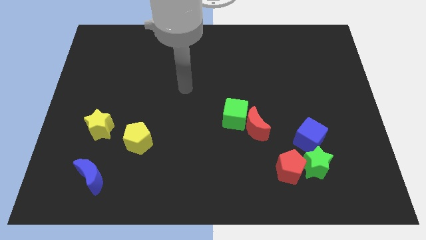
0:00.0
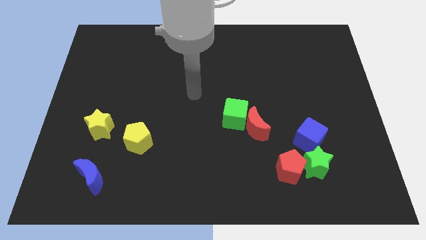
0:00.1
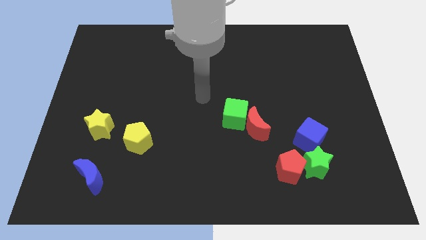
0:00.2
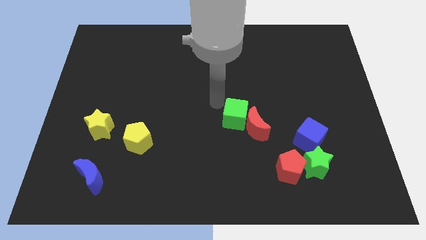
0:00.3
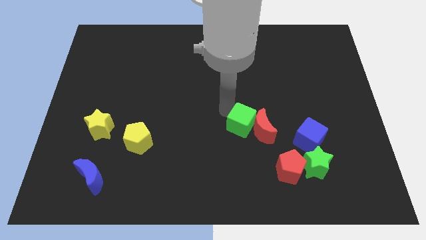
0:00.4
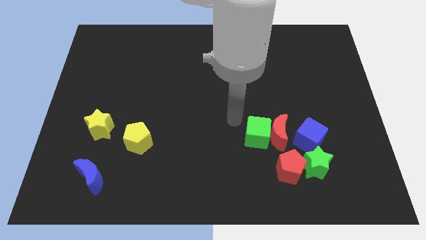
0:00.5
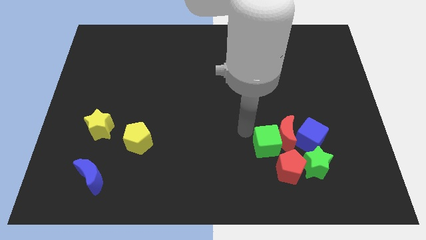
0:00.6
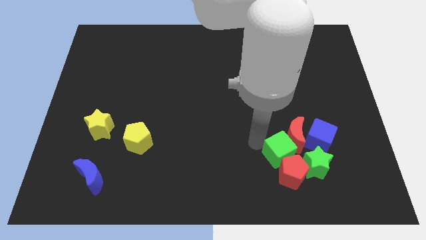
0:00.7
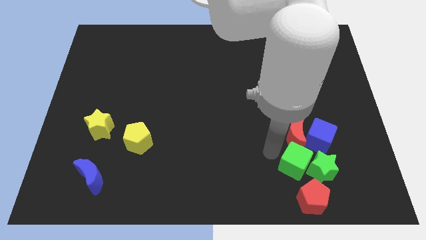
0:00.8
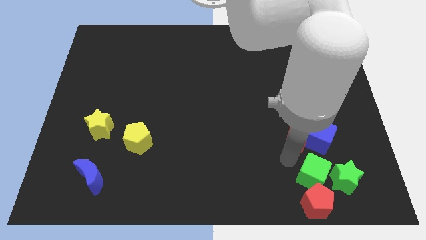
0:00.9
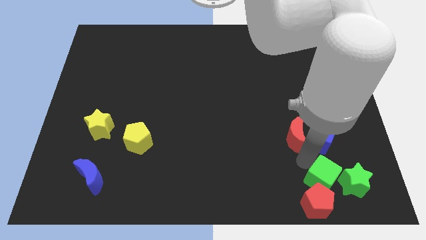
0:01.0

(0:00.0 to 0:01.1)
pull the red moon apart from the green cube

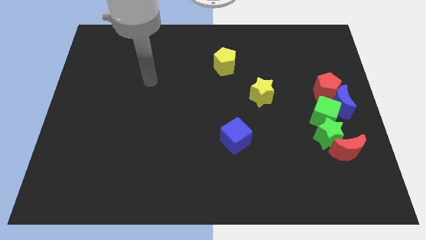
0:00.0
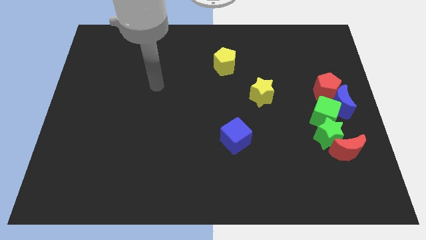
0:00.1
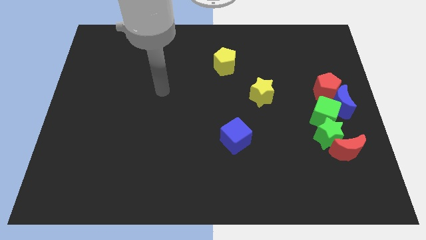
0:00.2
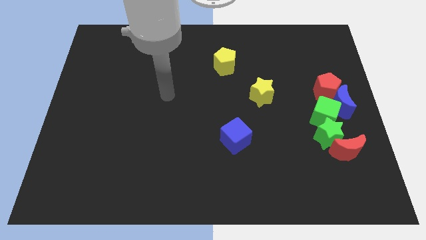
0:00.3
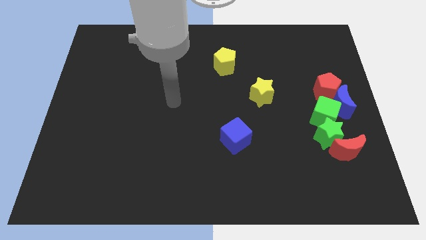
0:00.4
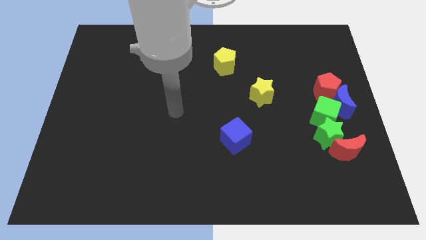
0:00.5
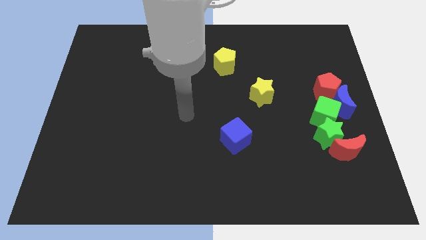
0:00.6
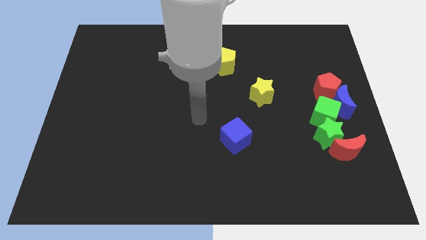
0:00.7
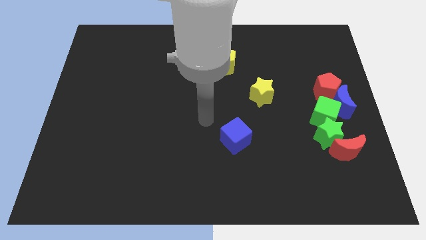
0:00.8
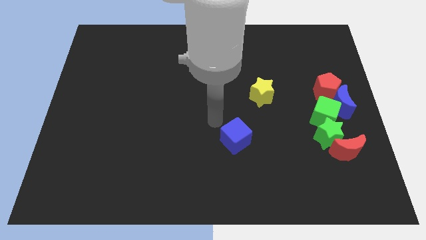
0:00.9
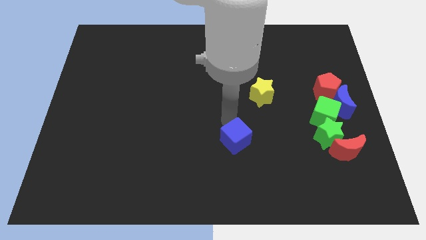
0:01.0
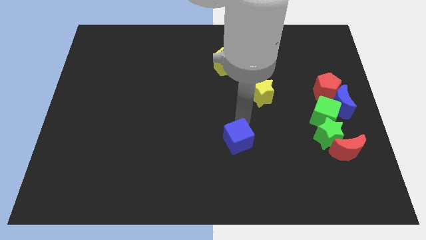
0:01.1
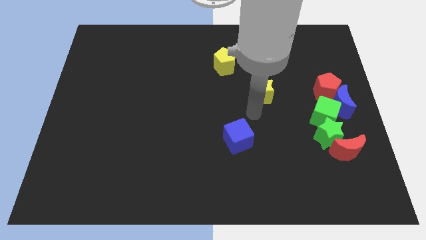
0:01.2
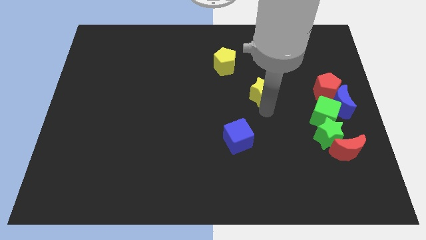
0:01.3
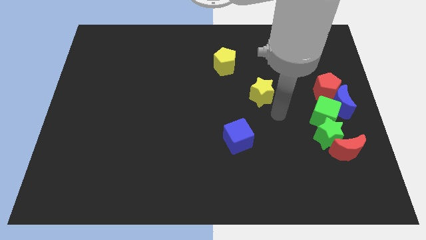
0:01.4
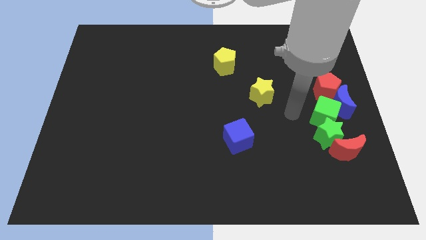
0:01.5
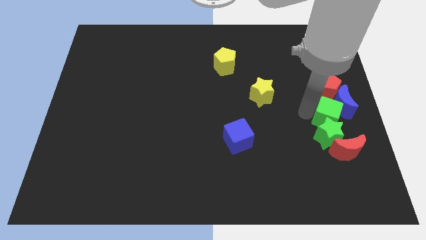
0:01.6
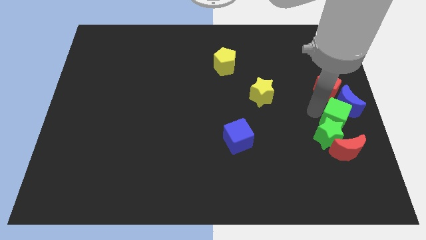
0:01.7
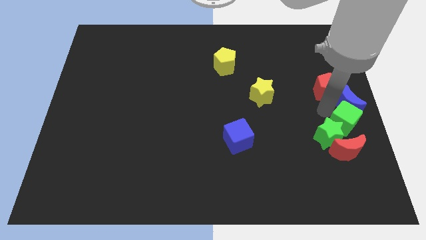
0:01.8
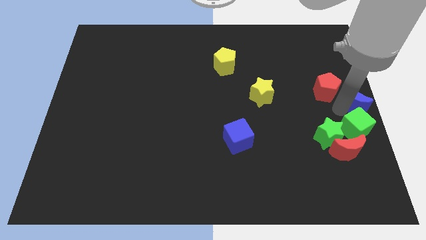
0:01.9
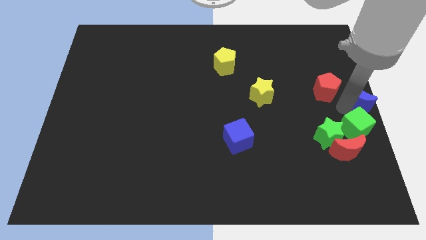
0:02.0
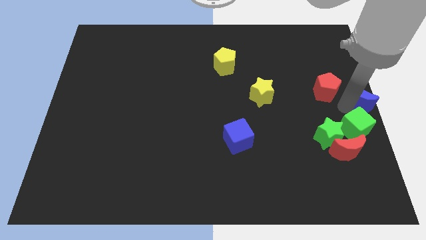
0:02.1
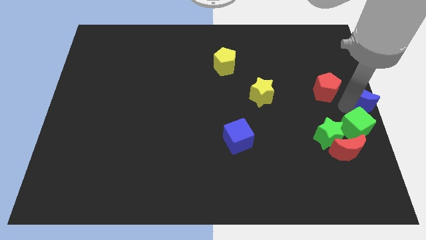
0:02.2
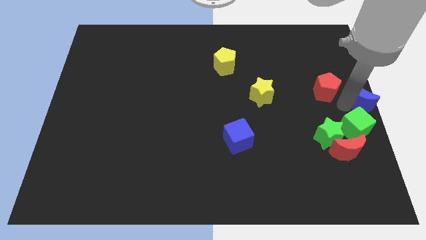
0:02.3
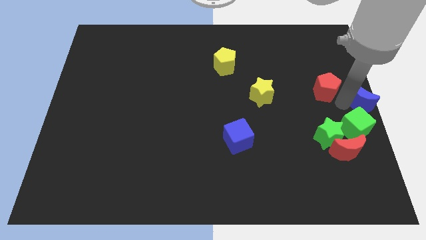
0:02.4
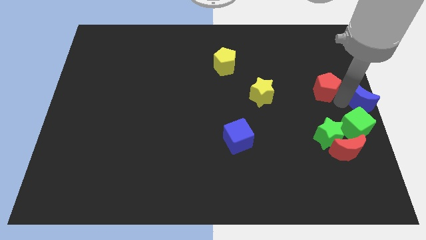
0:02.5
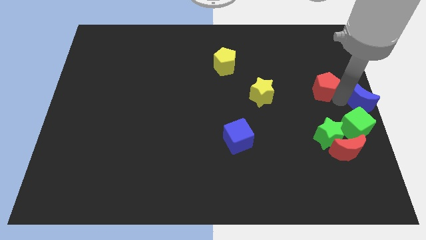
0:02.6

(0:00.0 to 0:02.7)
move the red pentagon away from the blue moon and green cube

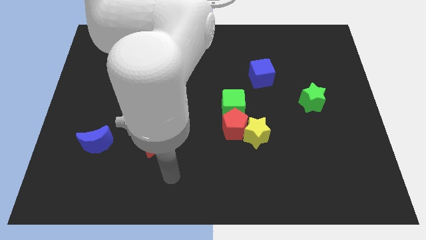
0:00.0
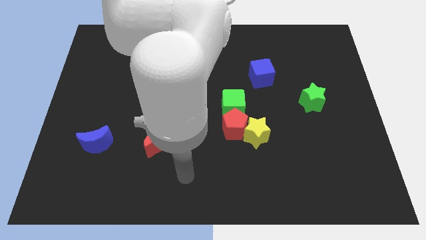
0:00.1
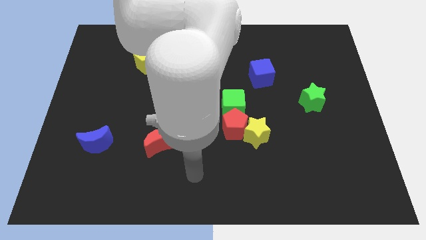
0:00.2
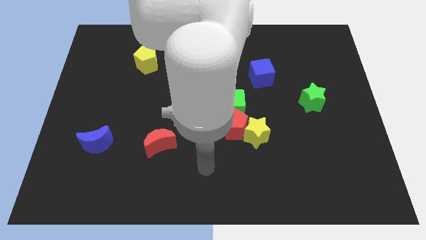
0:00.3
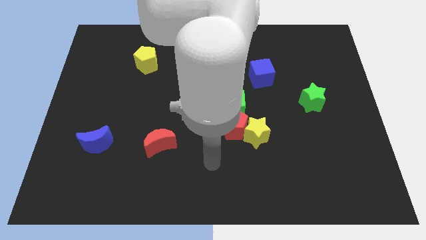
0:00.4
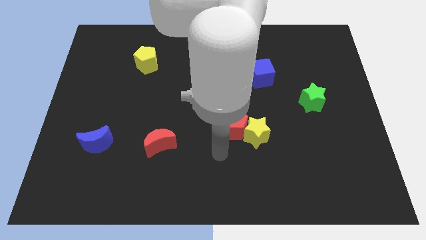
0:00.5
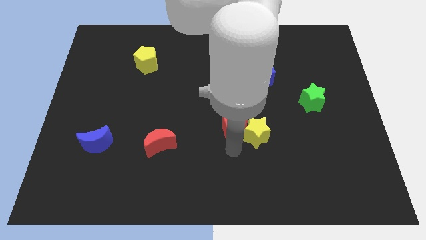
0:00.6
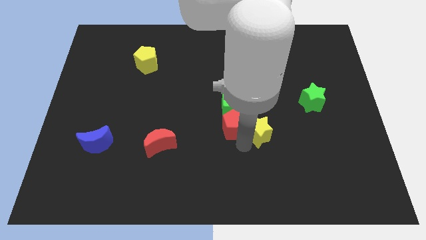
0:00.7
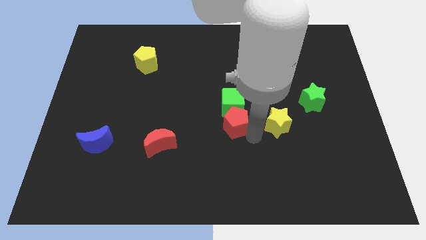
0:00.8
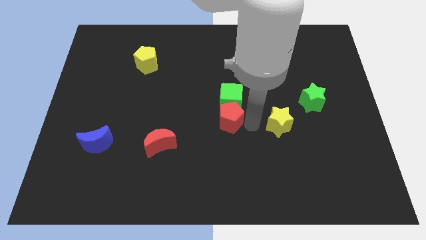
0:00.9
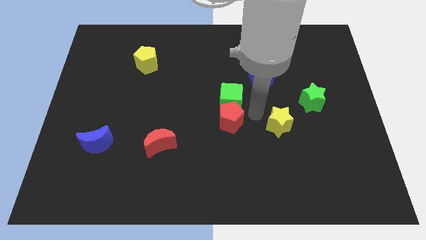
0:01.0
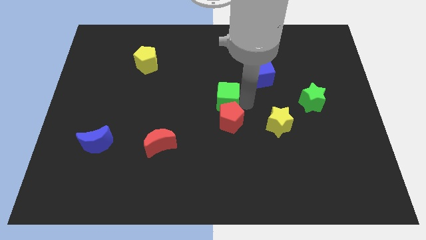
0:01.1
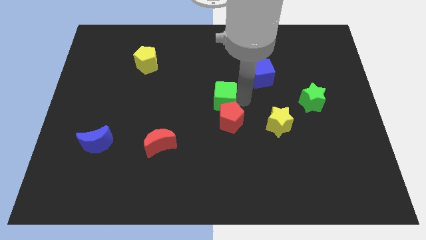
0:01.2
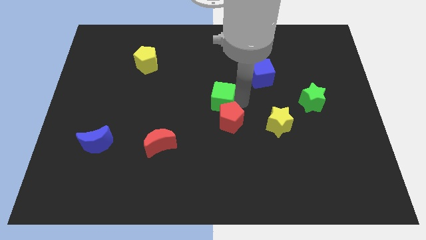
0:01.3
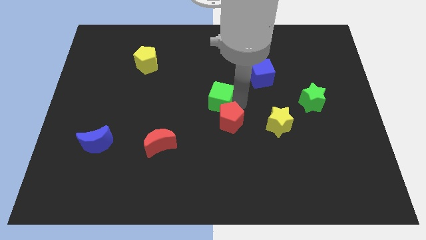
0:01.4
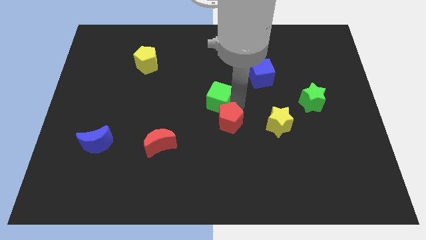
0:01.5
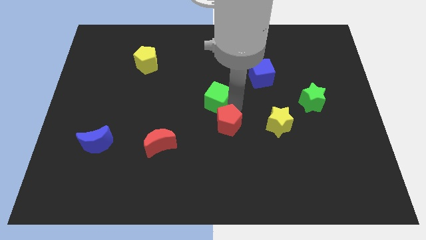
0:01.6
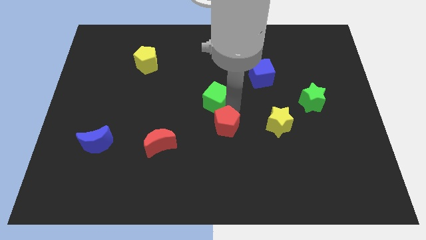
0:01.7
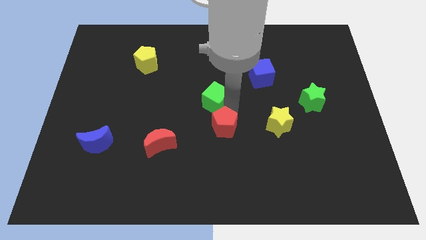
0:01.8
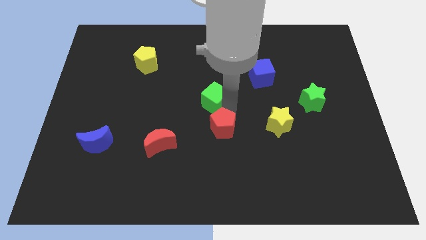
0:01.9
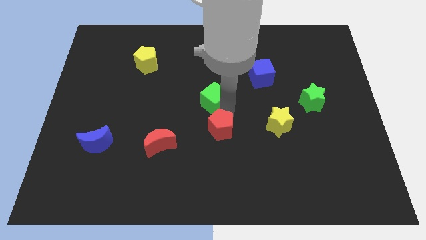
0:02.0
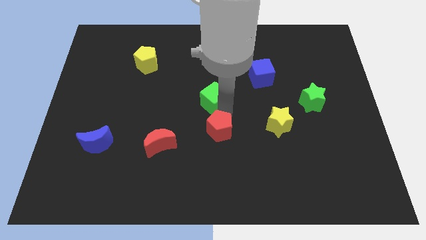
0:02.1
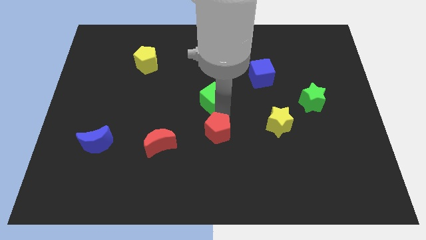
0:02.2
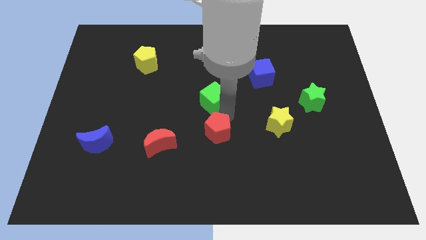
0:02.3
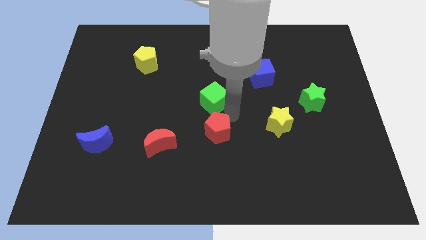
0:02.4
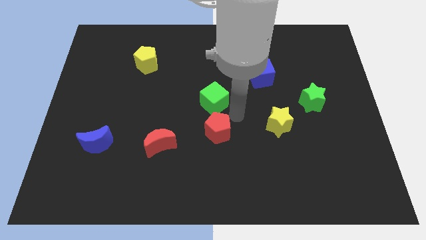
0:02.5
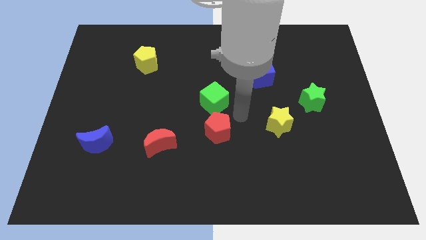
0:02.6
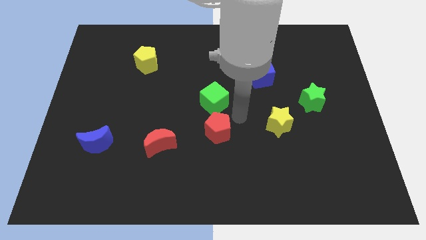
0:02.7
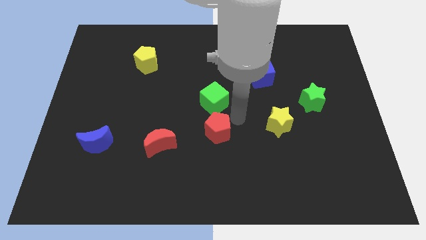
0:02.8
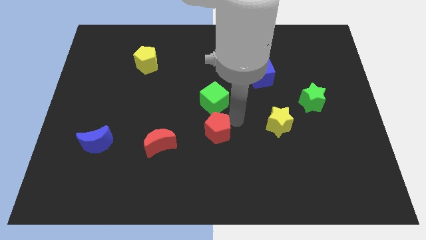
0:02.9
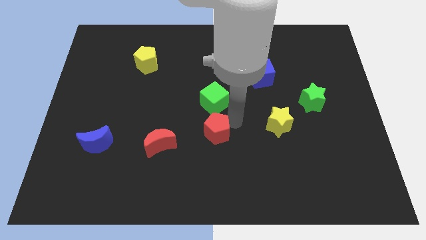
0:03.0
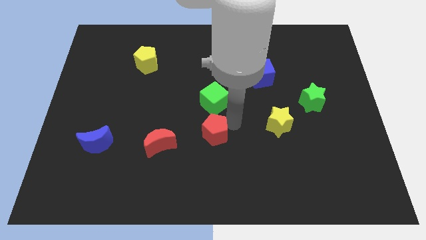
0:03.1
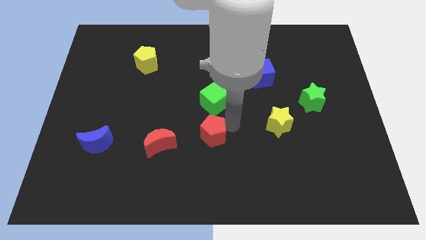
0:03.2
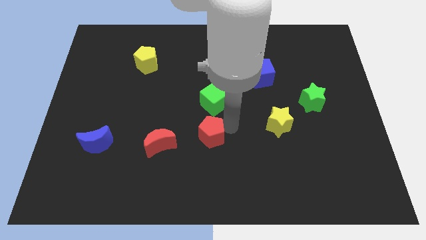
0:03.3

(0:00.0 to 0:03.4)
move the red pentagon away from the yellow star and green cube

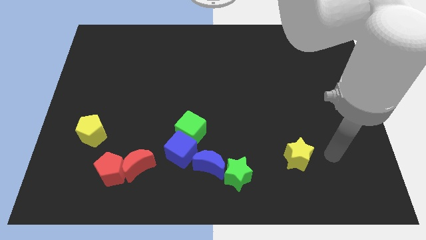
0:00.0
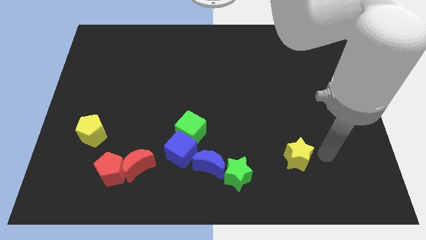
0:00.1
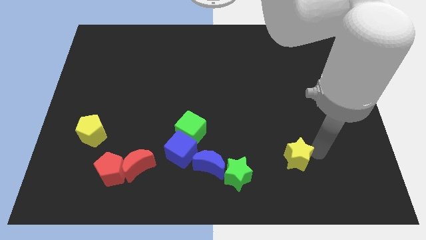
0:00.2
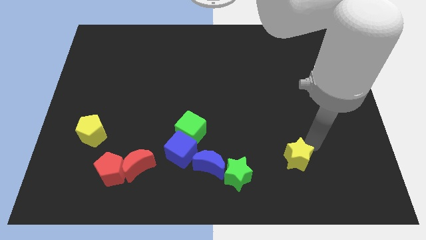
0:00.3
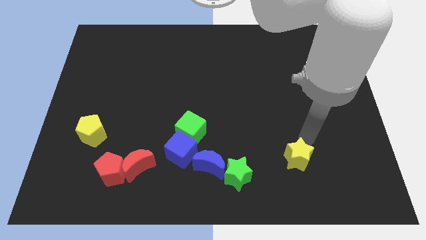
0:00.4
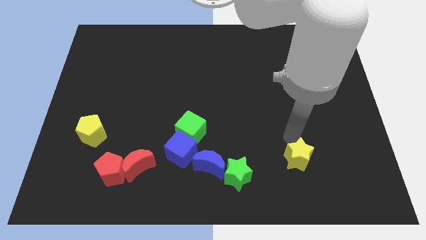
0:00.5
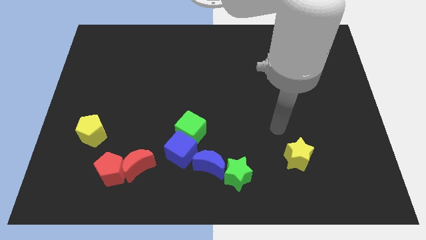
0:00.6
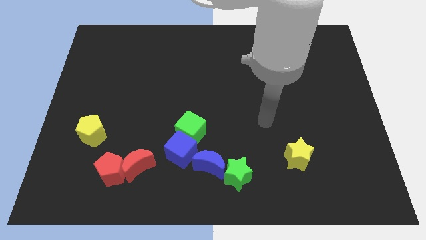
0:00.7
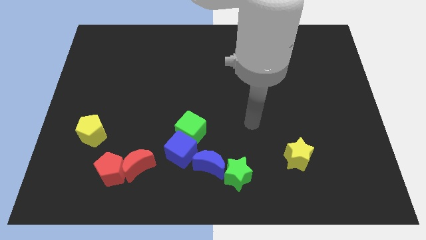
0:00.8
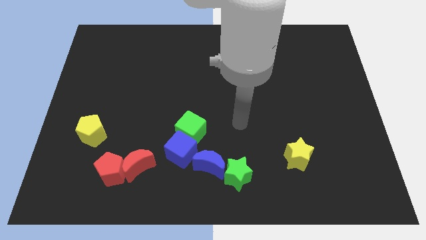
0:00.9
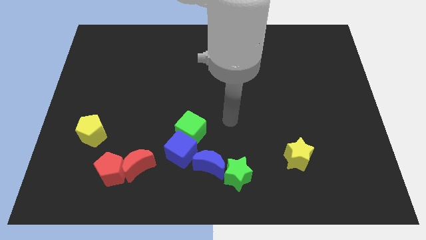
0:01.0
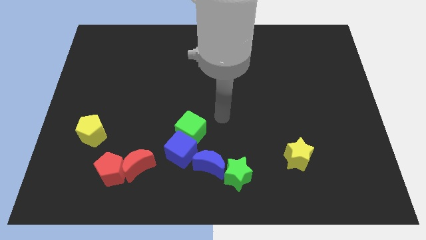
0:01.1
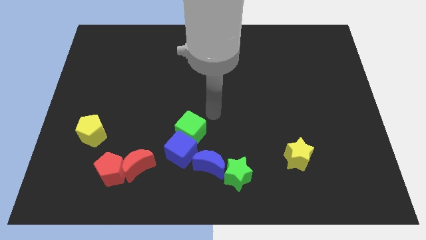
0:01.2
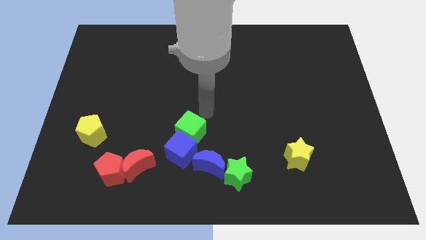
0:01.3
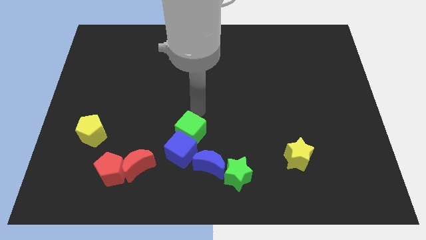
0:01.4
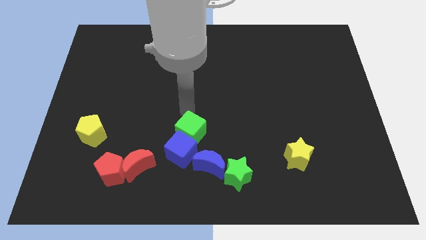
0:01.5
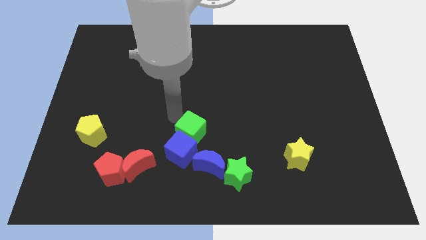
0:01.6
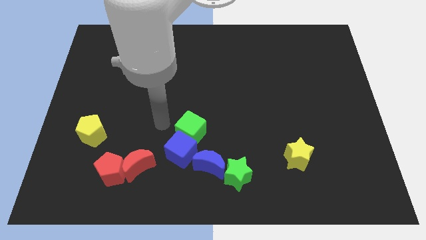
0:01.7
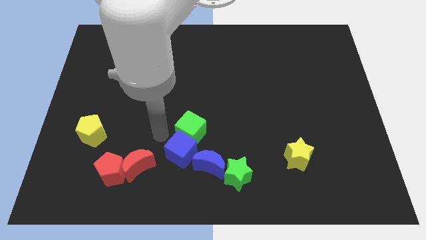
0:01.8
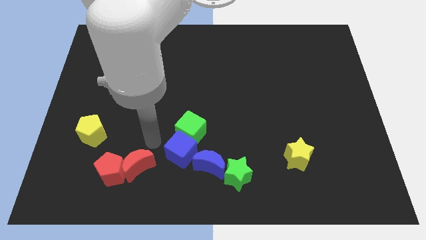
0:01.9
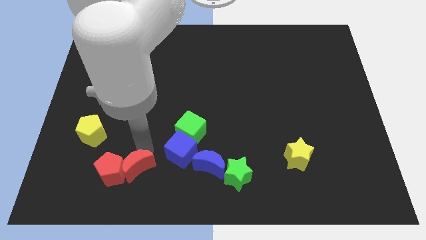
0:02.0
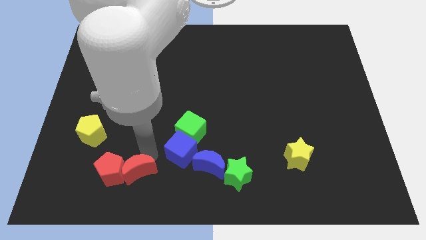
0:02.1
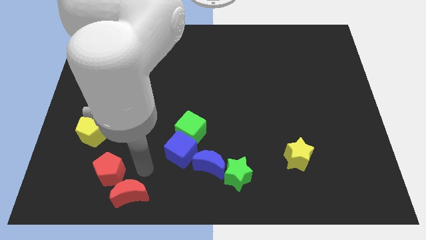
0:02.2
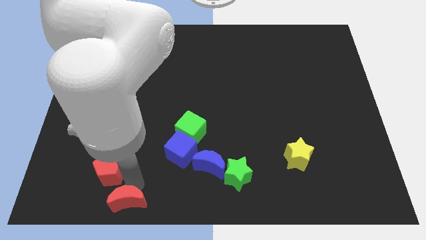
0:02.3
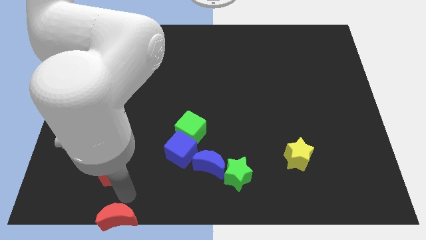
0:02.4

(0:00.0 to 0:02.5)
pull the red pentagon apart from the red moon
